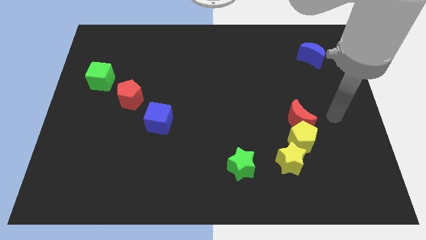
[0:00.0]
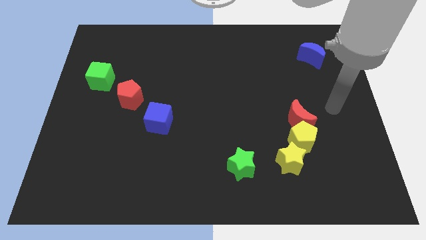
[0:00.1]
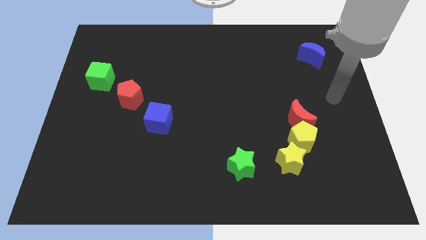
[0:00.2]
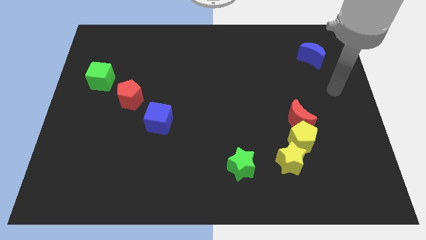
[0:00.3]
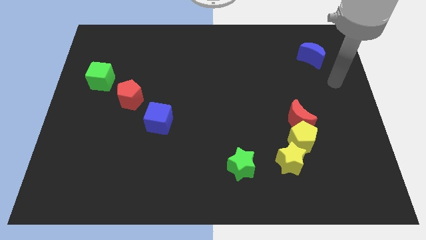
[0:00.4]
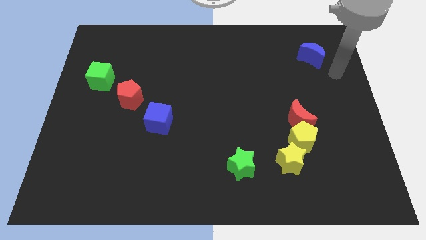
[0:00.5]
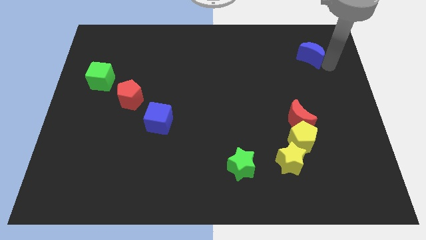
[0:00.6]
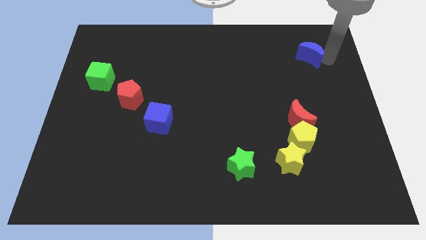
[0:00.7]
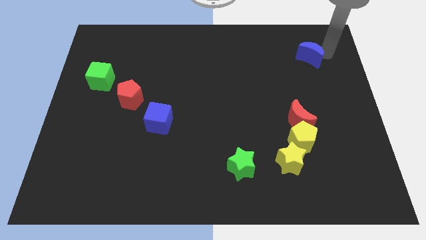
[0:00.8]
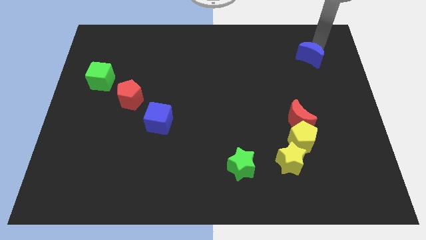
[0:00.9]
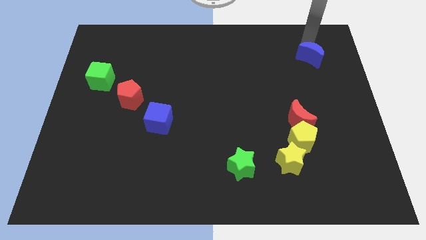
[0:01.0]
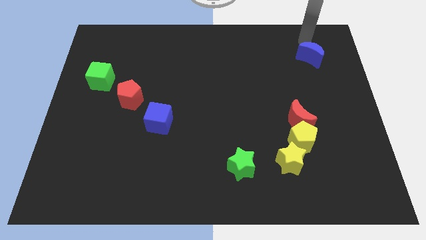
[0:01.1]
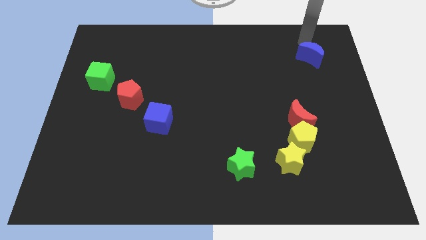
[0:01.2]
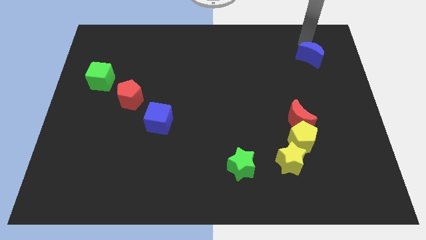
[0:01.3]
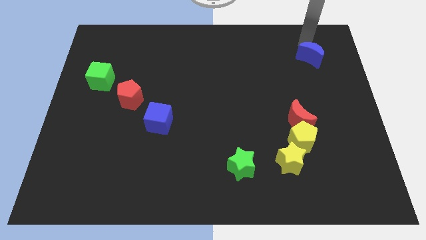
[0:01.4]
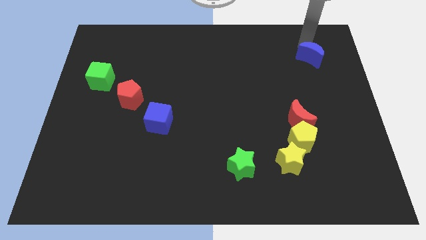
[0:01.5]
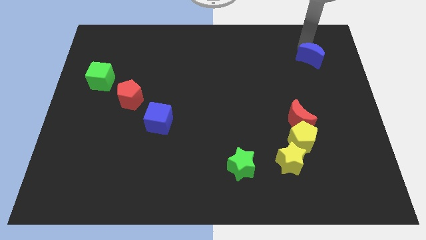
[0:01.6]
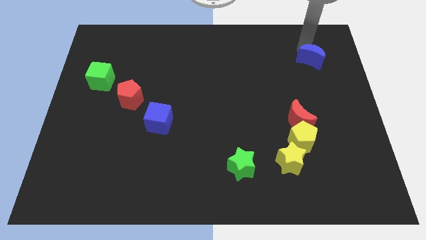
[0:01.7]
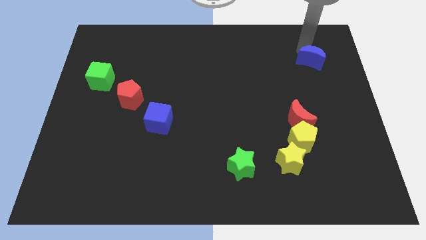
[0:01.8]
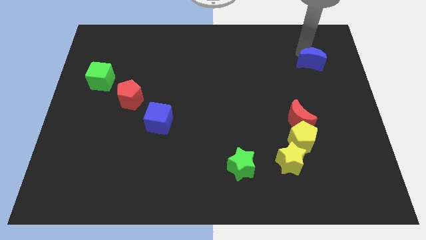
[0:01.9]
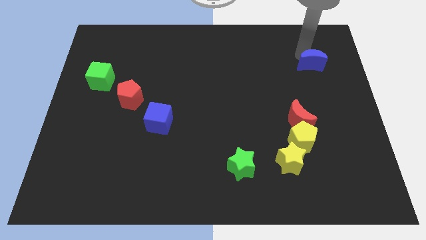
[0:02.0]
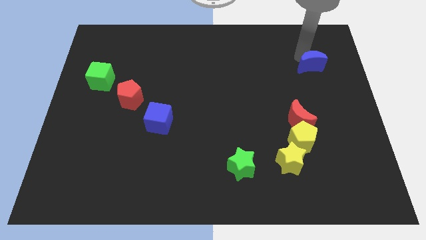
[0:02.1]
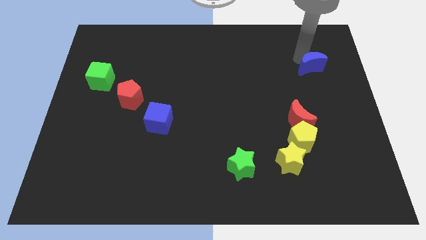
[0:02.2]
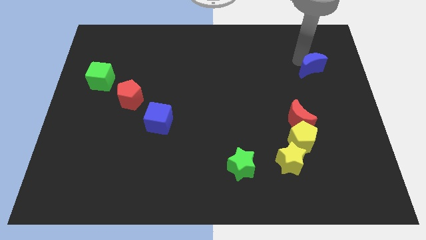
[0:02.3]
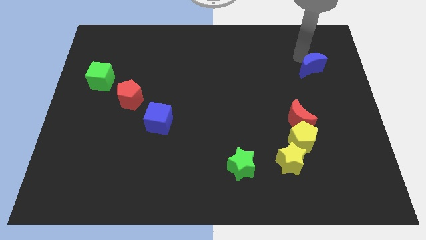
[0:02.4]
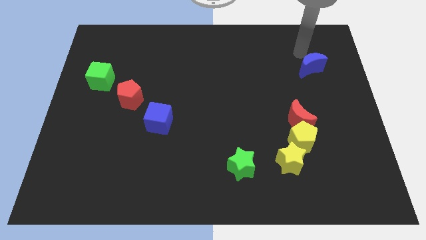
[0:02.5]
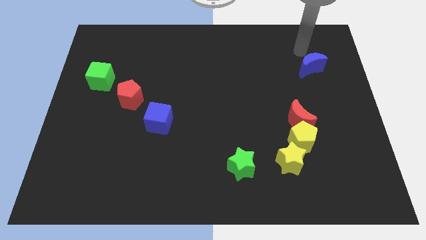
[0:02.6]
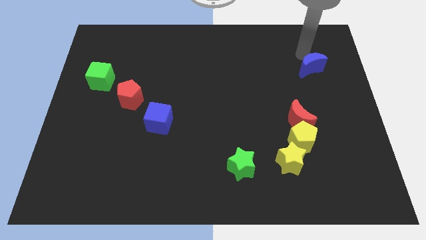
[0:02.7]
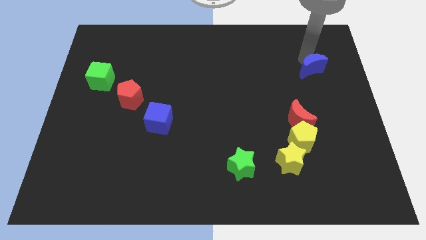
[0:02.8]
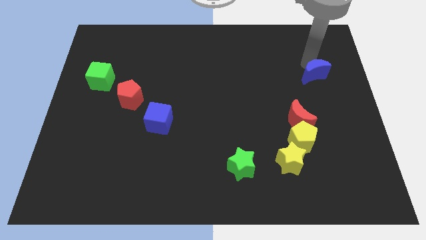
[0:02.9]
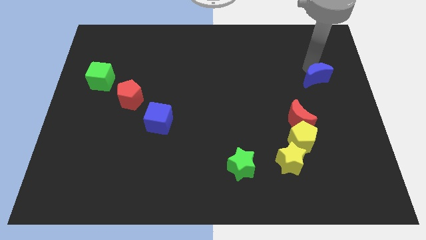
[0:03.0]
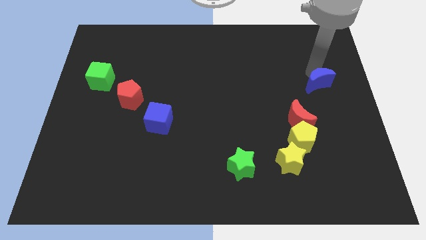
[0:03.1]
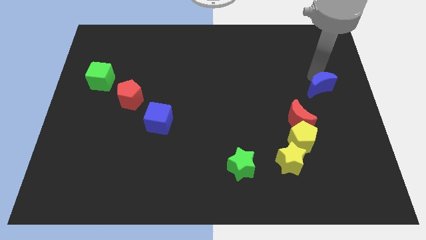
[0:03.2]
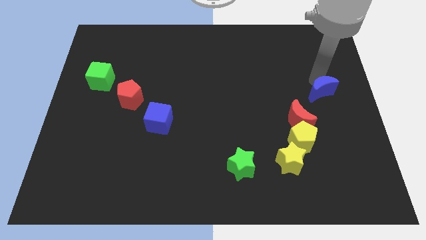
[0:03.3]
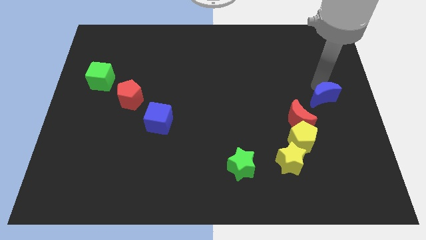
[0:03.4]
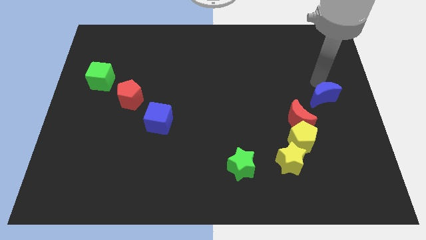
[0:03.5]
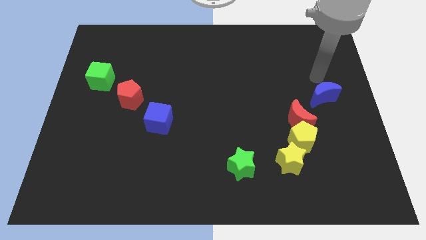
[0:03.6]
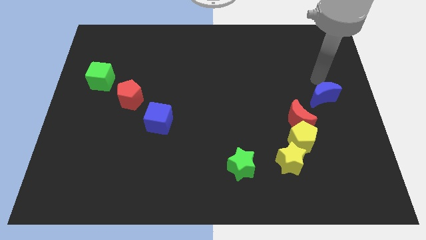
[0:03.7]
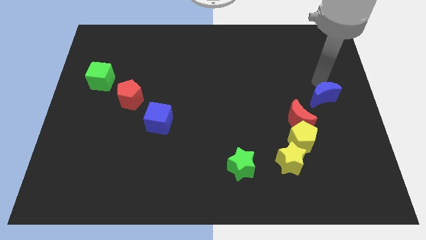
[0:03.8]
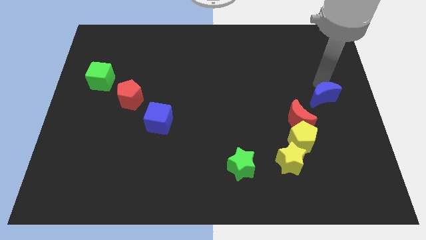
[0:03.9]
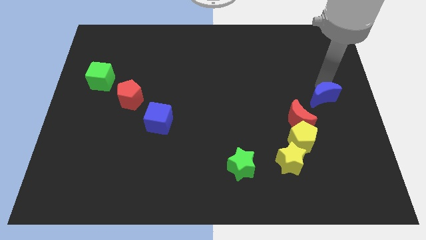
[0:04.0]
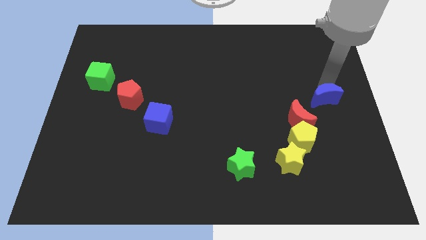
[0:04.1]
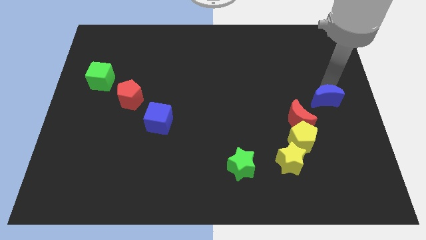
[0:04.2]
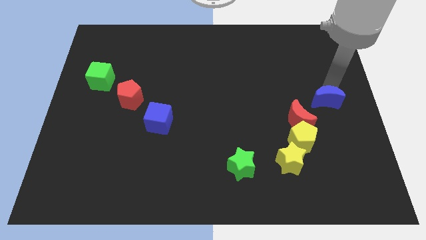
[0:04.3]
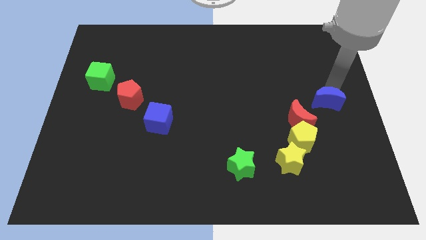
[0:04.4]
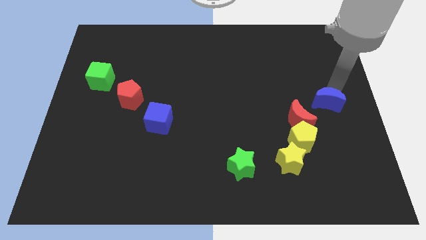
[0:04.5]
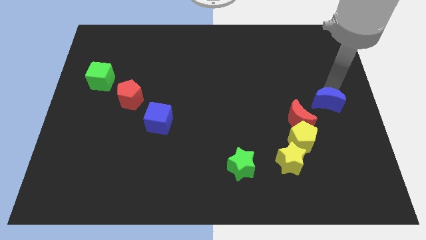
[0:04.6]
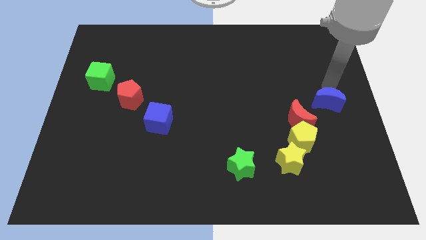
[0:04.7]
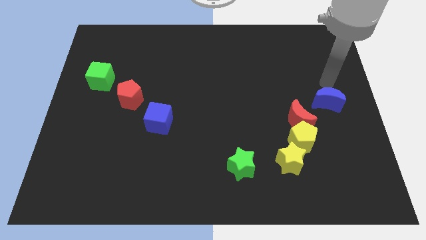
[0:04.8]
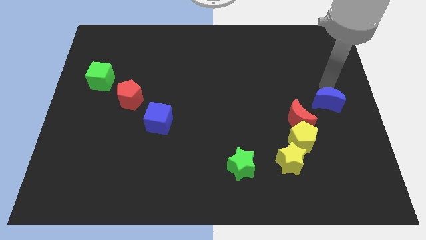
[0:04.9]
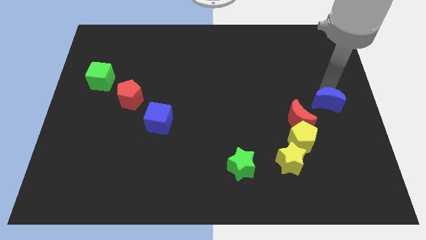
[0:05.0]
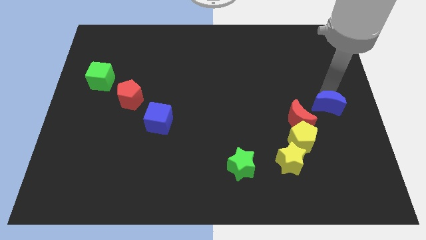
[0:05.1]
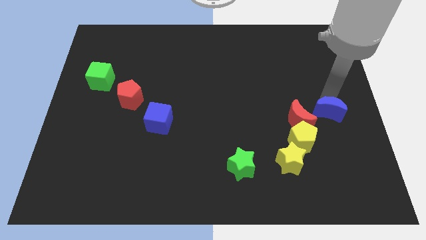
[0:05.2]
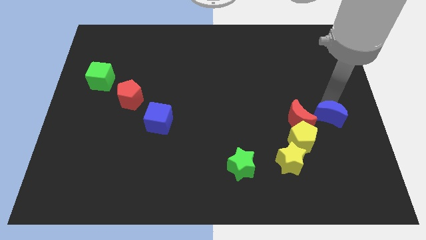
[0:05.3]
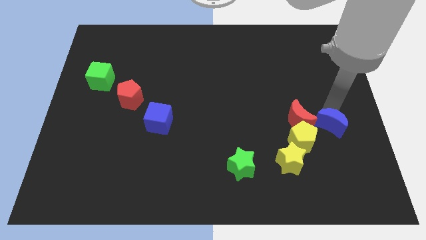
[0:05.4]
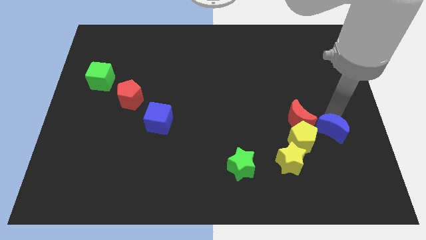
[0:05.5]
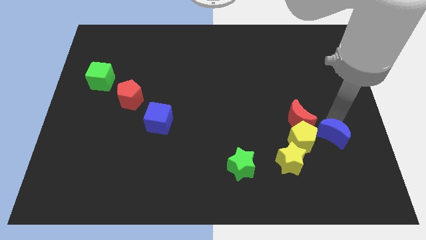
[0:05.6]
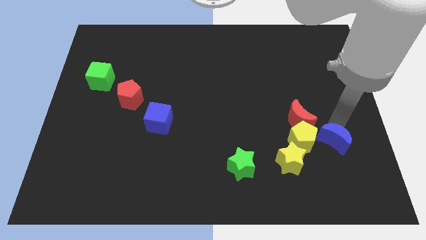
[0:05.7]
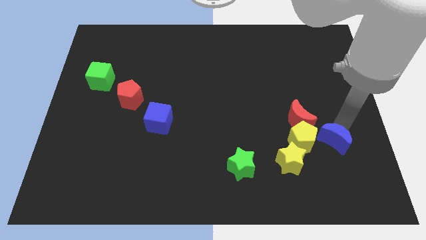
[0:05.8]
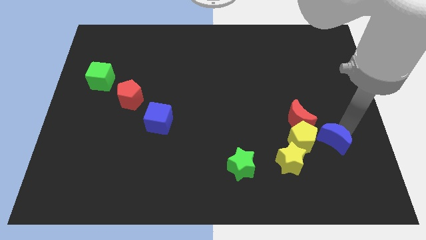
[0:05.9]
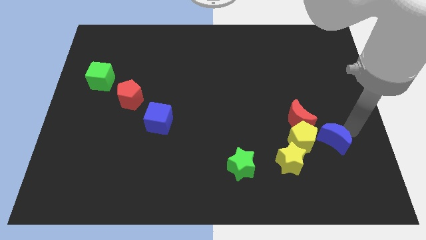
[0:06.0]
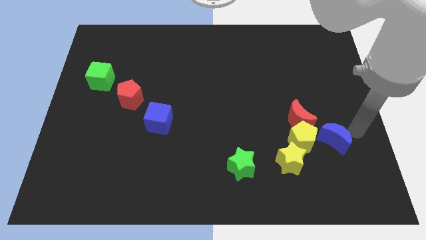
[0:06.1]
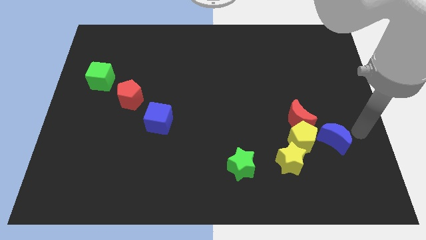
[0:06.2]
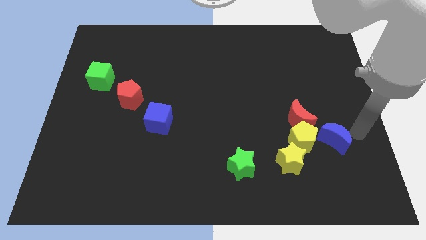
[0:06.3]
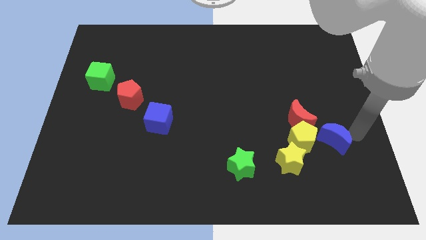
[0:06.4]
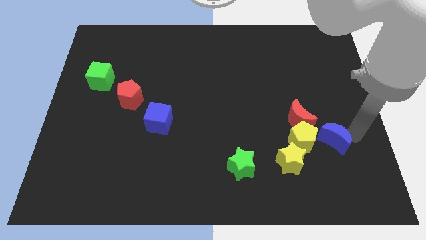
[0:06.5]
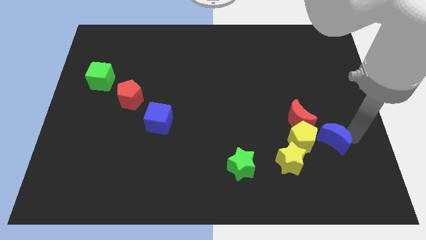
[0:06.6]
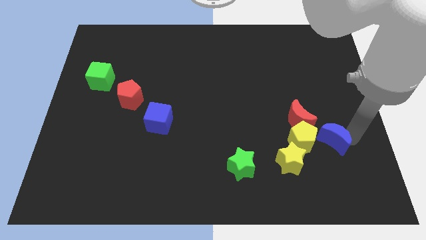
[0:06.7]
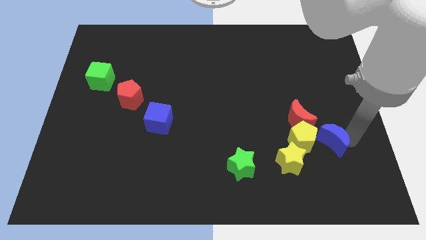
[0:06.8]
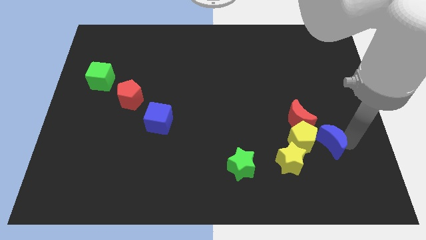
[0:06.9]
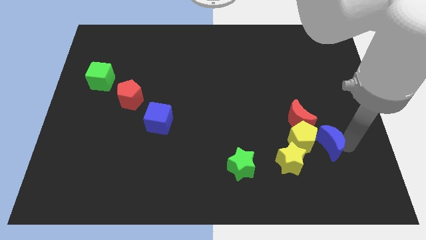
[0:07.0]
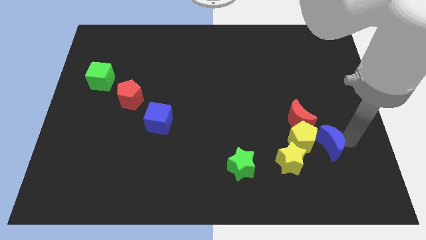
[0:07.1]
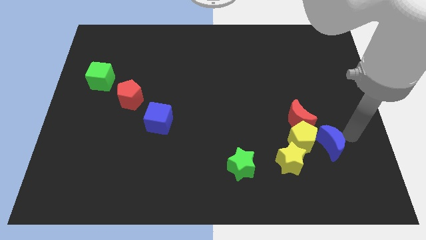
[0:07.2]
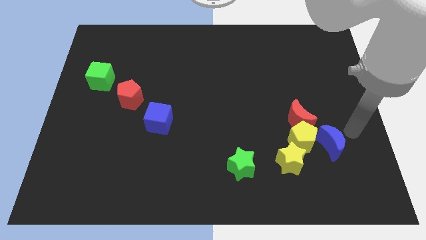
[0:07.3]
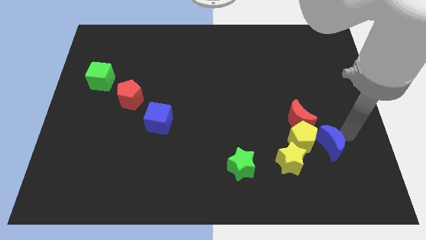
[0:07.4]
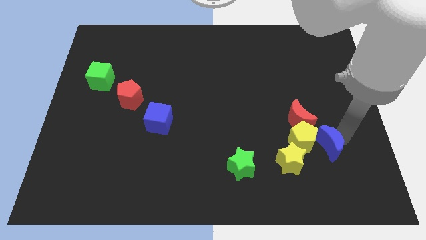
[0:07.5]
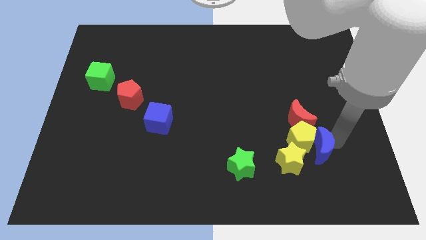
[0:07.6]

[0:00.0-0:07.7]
move the blue moon below the red moon

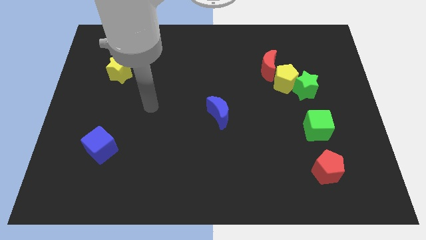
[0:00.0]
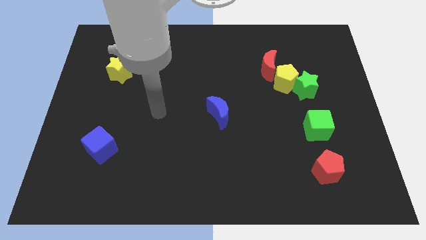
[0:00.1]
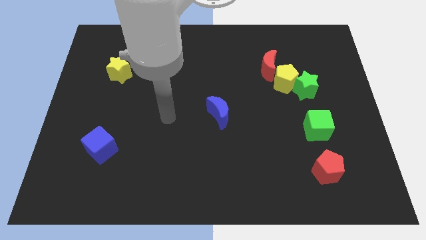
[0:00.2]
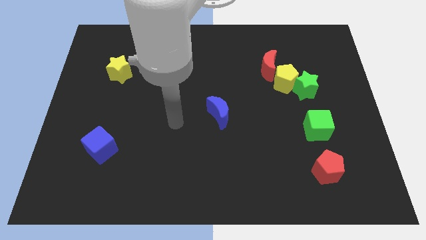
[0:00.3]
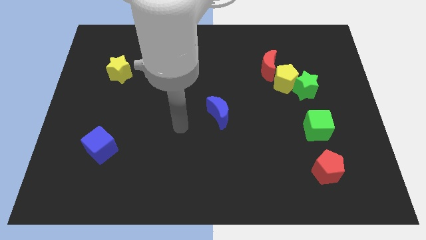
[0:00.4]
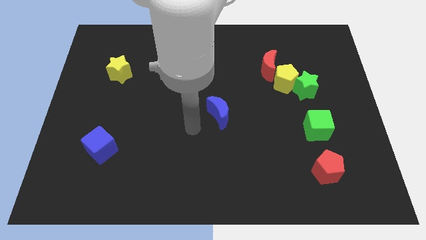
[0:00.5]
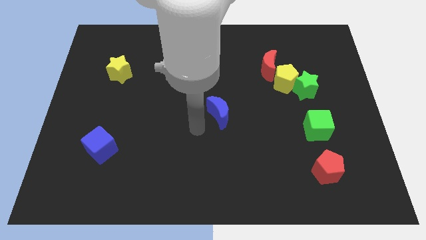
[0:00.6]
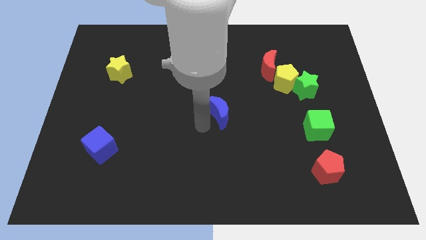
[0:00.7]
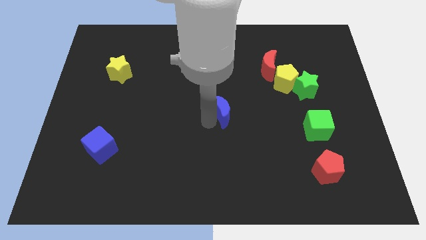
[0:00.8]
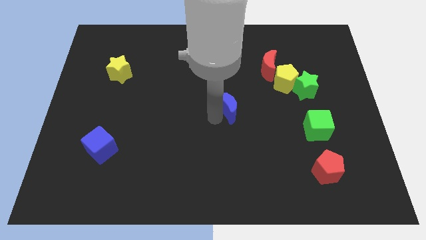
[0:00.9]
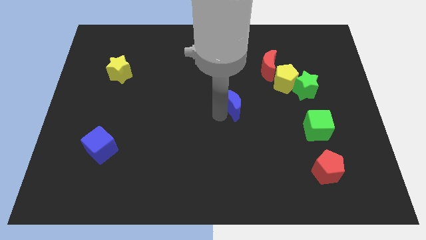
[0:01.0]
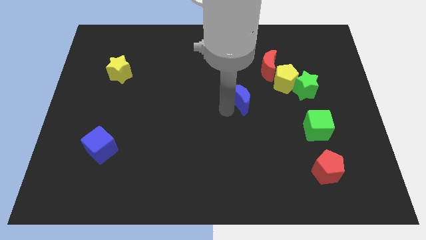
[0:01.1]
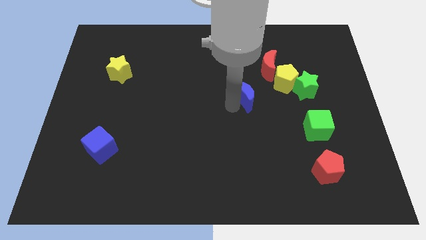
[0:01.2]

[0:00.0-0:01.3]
slide the blue moon left of the green star
